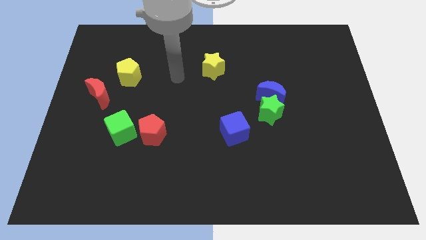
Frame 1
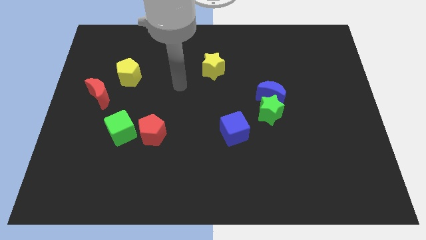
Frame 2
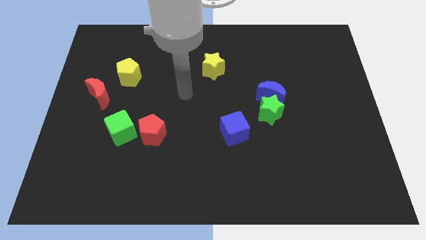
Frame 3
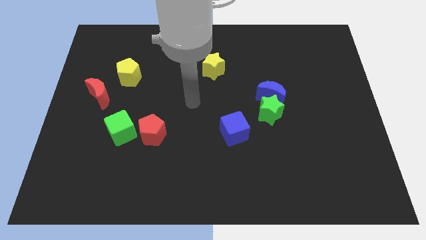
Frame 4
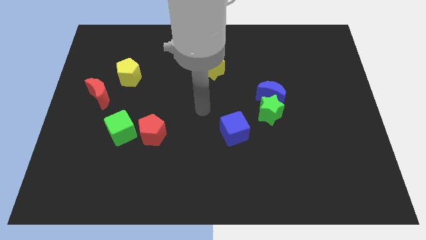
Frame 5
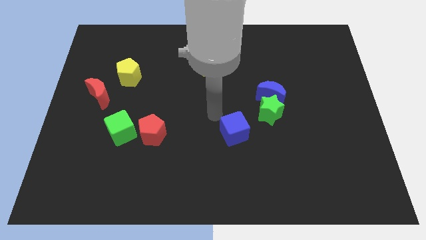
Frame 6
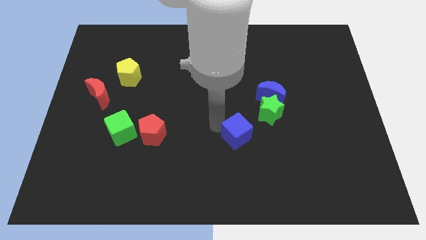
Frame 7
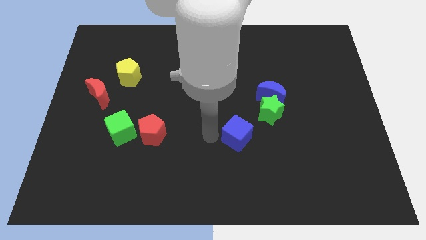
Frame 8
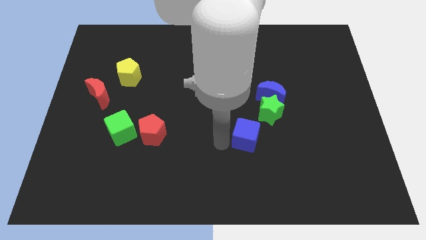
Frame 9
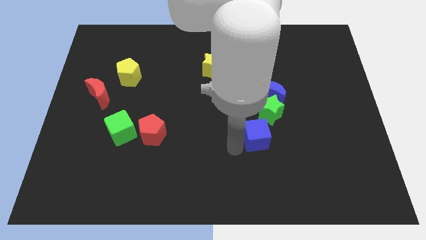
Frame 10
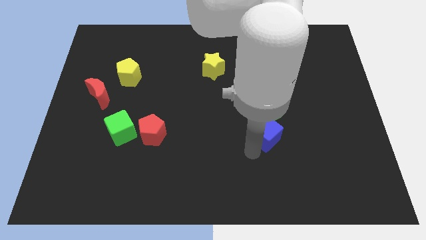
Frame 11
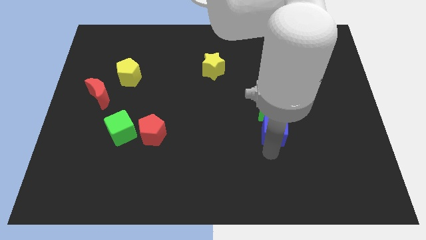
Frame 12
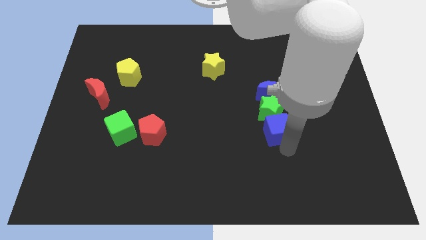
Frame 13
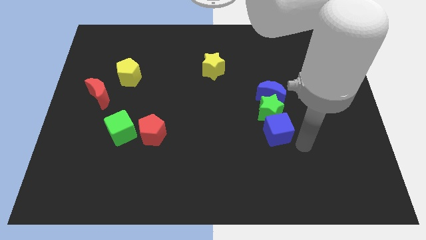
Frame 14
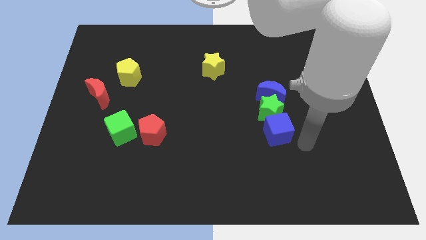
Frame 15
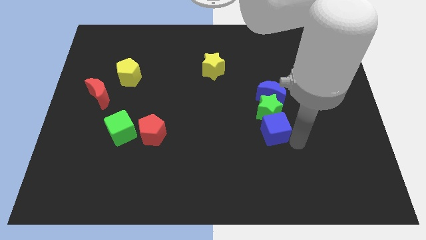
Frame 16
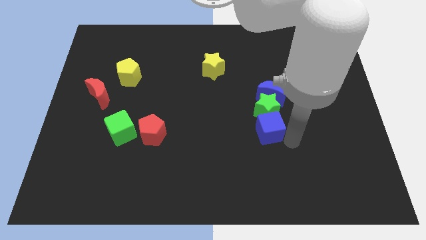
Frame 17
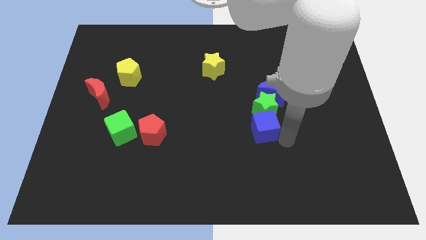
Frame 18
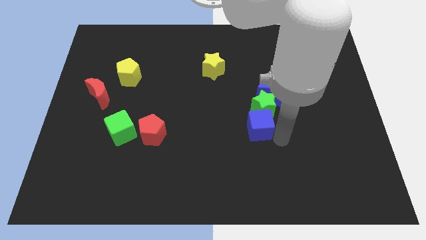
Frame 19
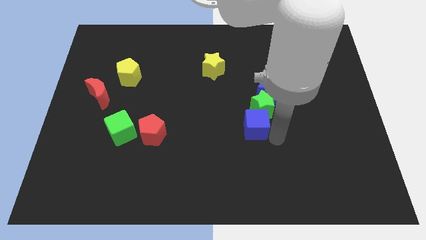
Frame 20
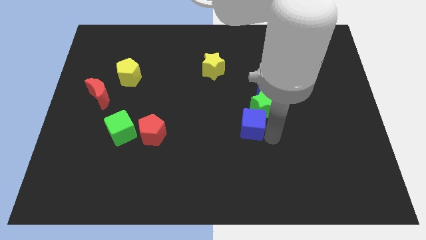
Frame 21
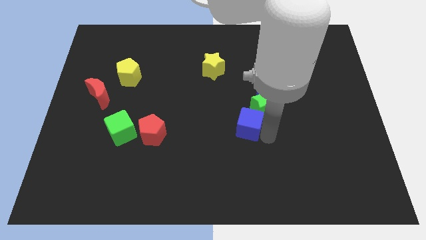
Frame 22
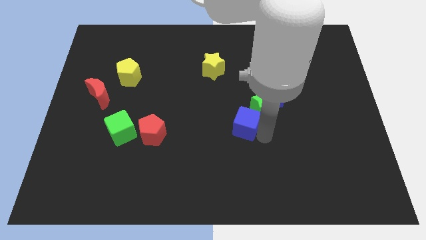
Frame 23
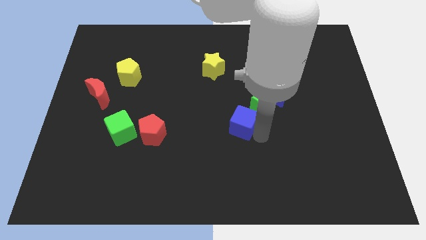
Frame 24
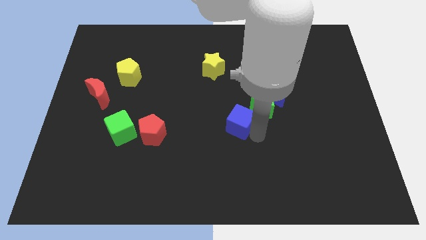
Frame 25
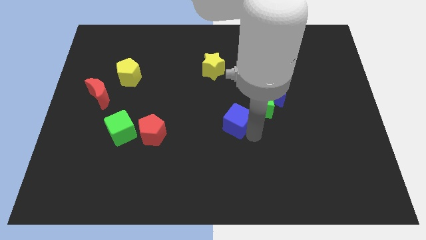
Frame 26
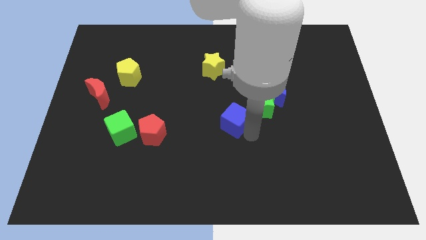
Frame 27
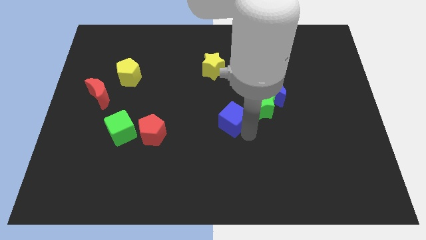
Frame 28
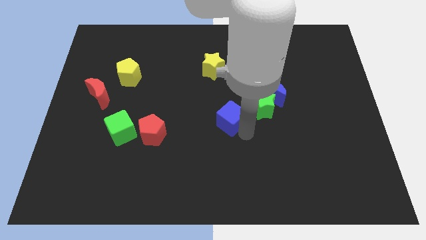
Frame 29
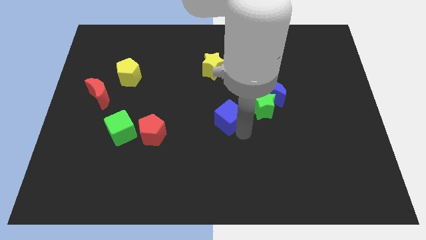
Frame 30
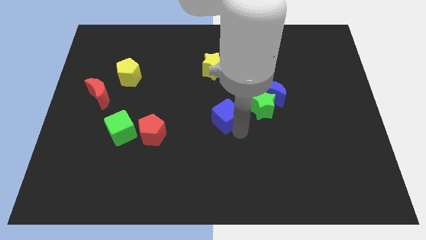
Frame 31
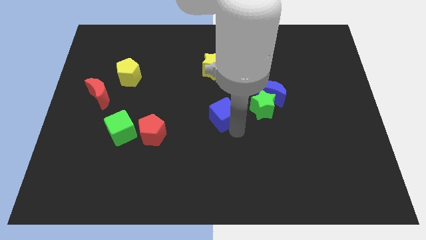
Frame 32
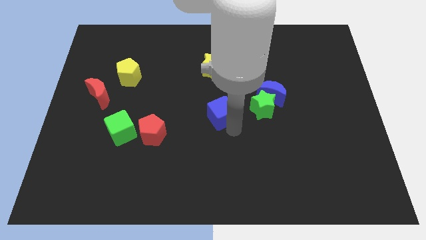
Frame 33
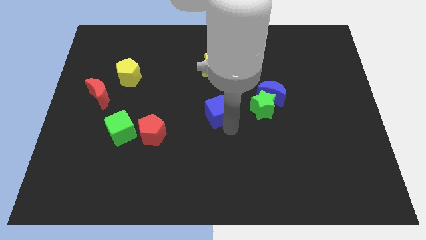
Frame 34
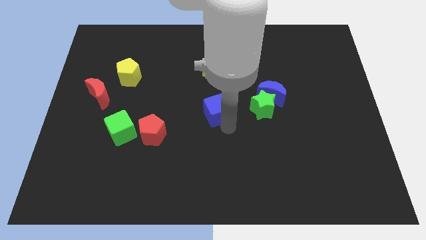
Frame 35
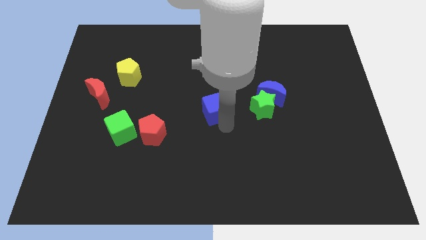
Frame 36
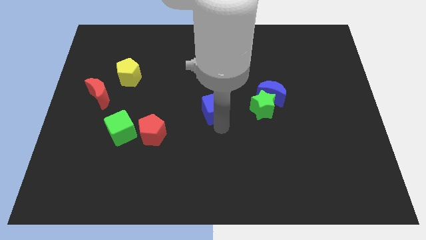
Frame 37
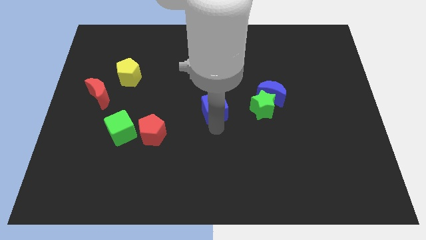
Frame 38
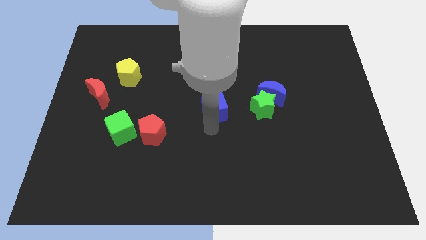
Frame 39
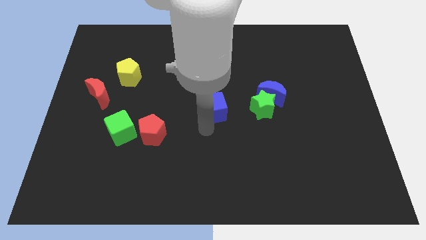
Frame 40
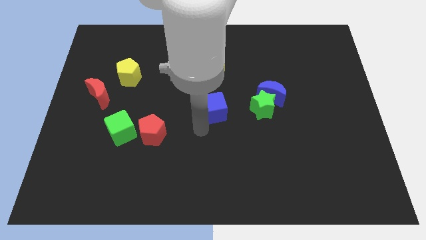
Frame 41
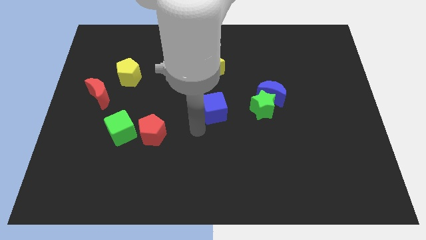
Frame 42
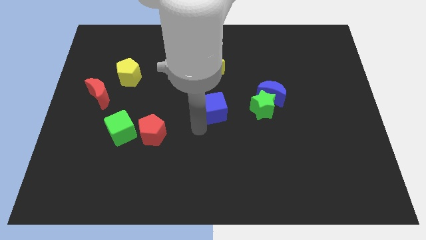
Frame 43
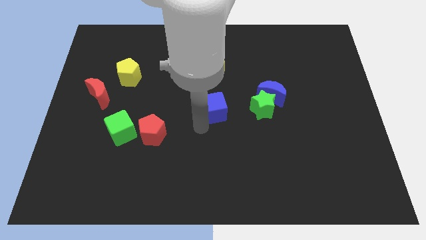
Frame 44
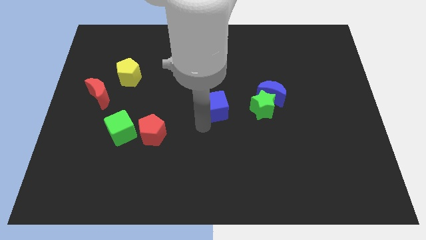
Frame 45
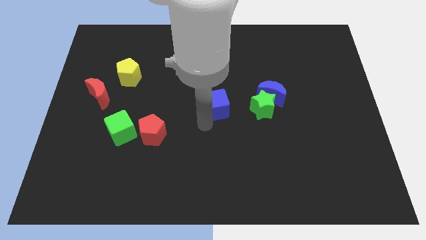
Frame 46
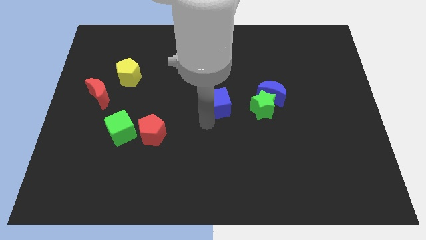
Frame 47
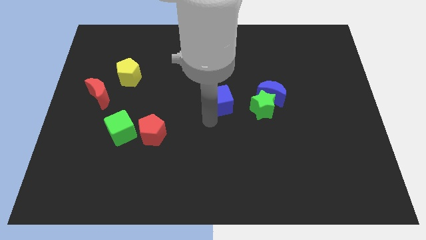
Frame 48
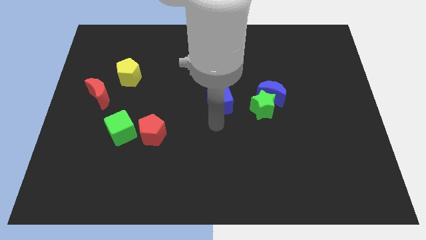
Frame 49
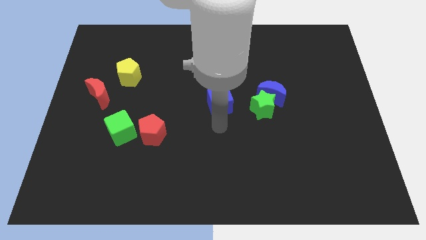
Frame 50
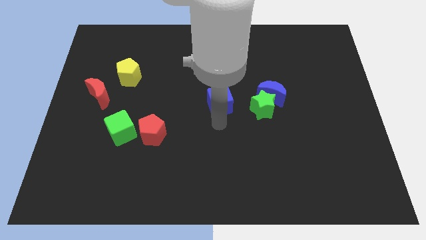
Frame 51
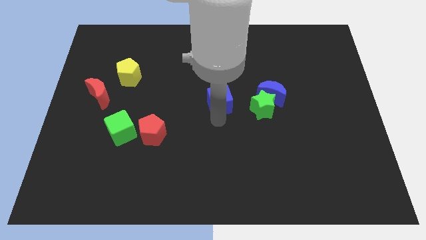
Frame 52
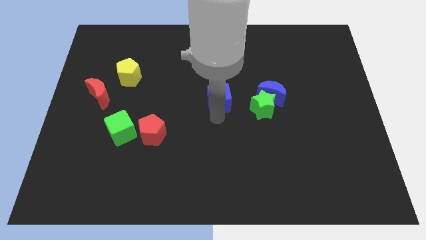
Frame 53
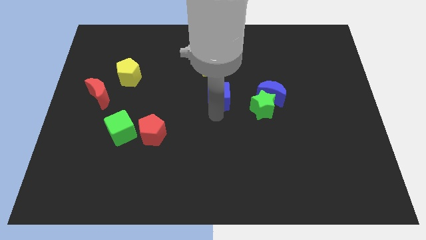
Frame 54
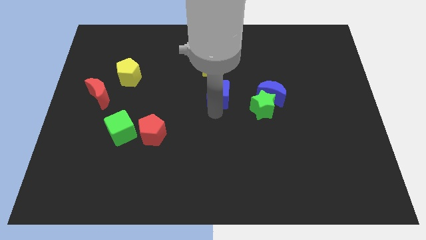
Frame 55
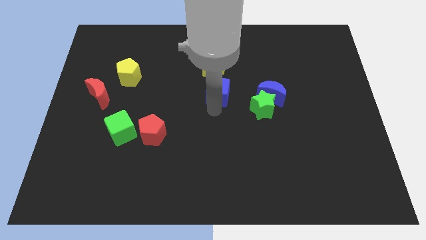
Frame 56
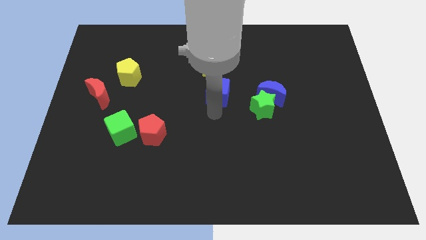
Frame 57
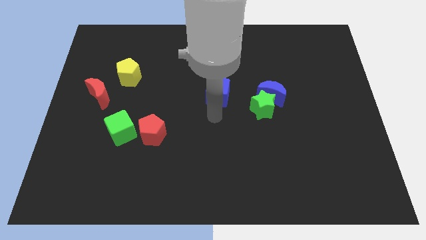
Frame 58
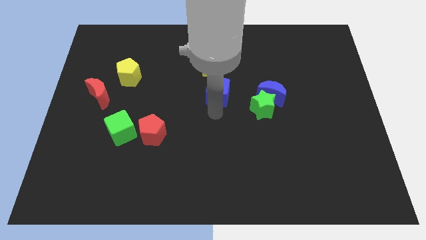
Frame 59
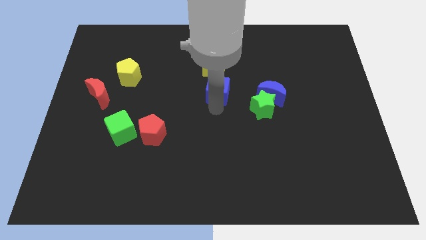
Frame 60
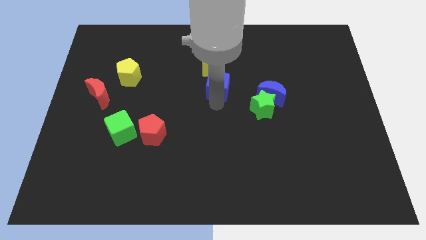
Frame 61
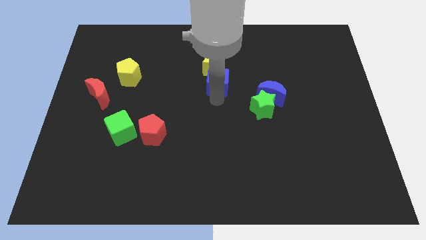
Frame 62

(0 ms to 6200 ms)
move the blue cube next to the yellow star
